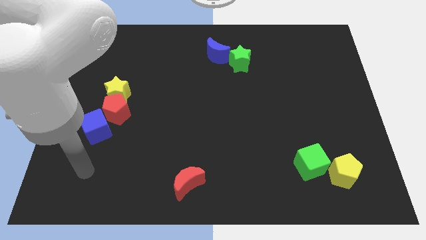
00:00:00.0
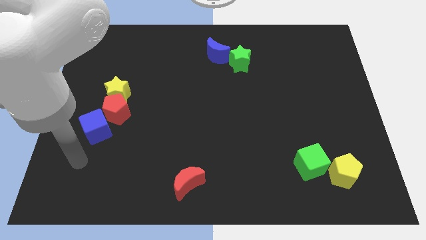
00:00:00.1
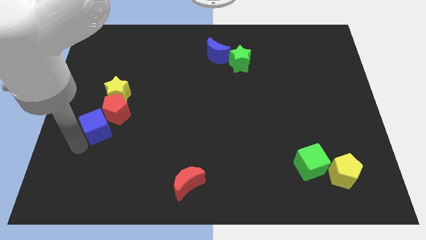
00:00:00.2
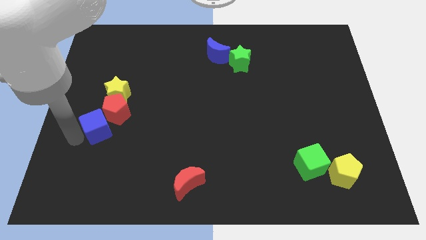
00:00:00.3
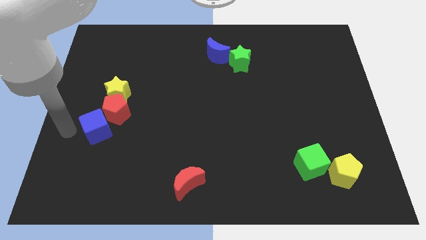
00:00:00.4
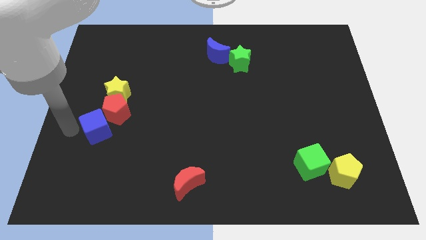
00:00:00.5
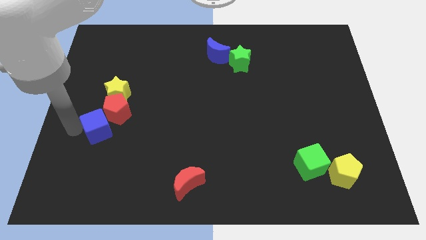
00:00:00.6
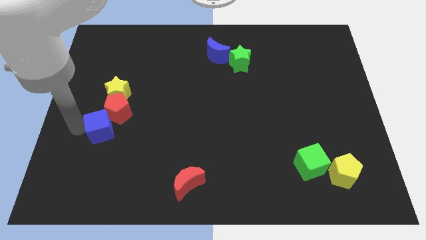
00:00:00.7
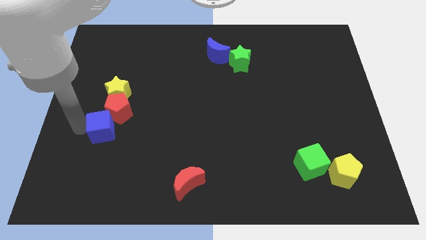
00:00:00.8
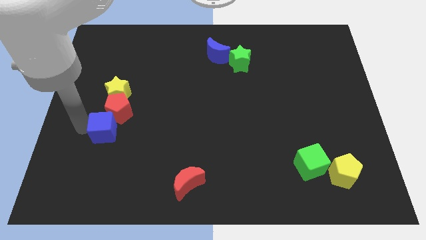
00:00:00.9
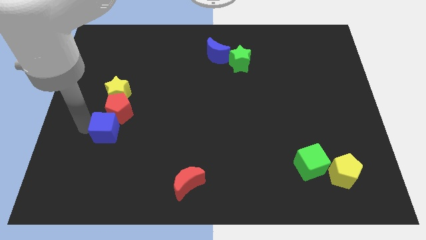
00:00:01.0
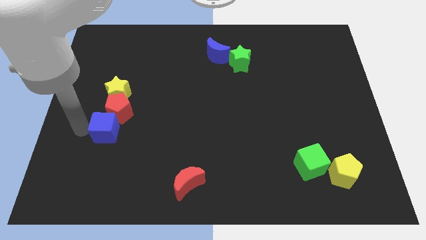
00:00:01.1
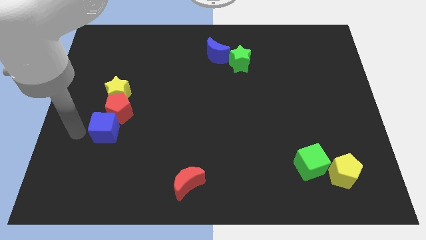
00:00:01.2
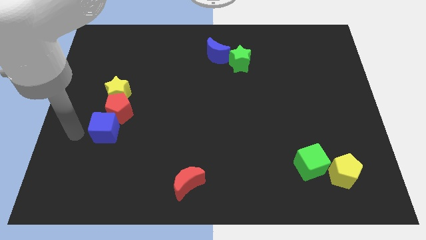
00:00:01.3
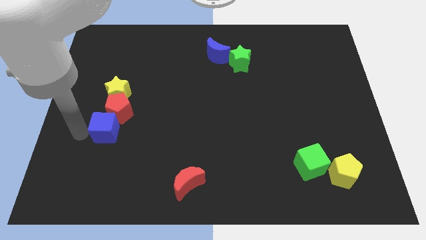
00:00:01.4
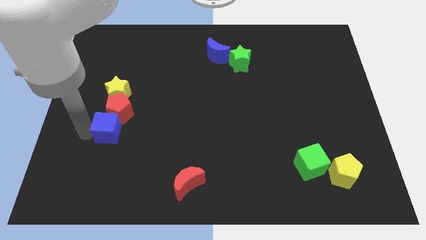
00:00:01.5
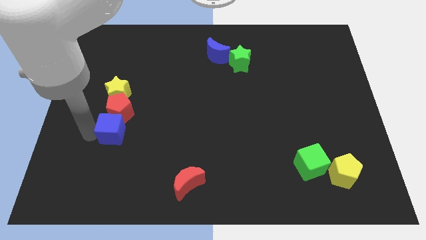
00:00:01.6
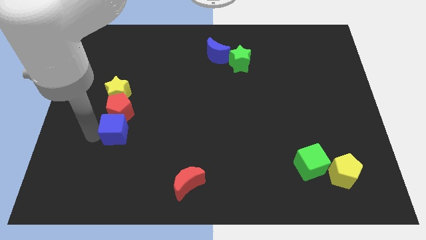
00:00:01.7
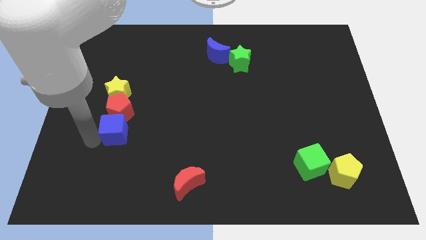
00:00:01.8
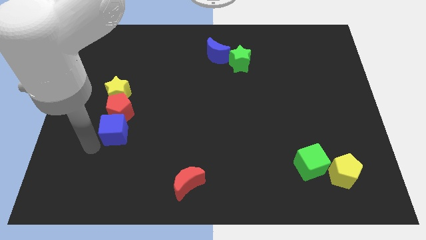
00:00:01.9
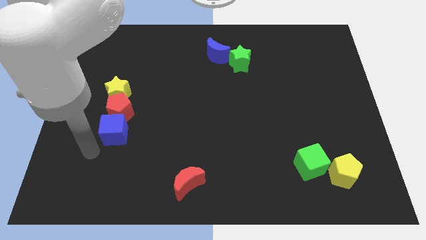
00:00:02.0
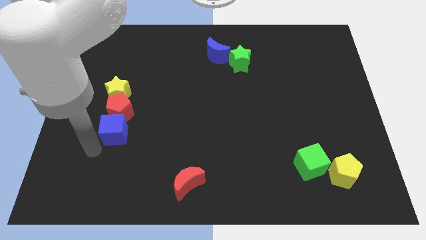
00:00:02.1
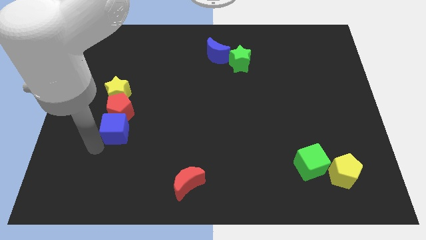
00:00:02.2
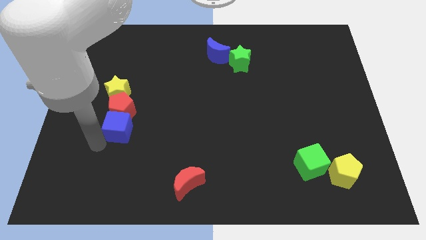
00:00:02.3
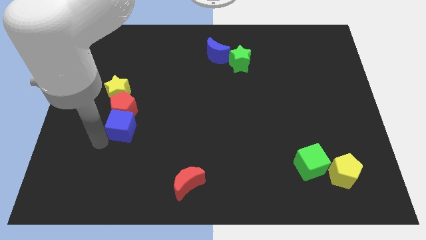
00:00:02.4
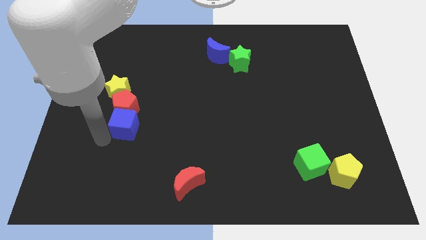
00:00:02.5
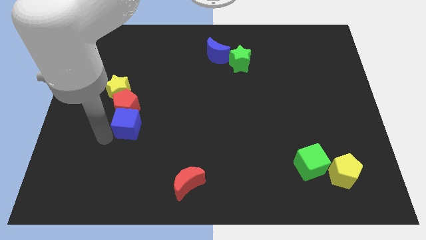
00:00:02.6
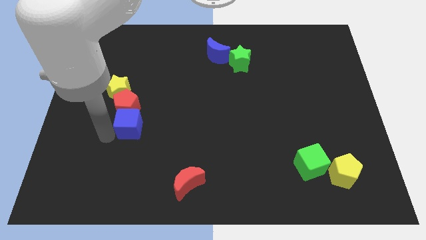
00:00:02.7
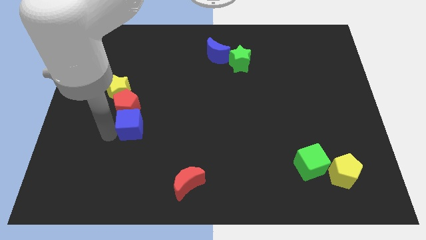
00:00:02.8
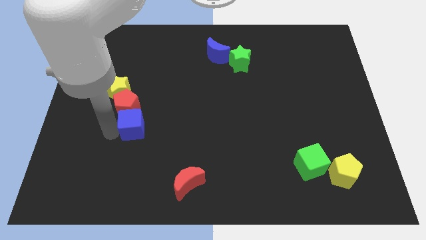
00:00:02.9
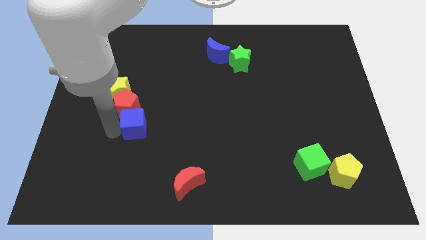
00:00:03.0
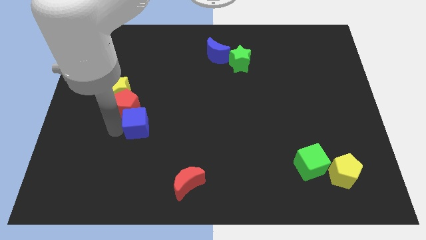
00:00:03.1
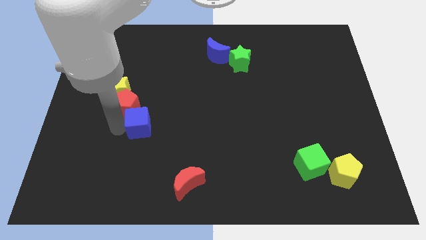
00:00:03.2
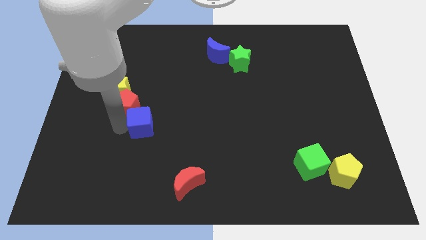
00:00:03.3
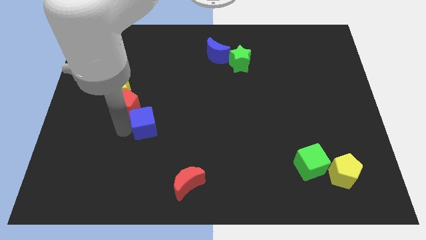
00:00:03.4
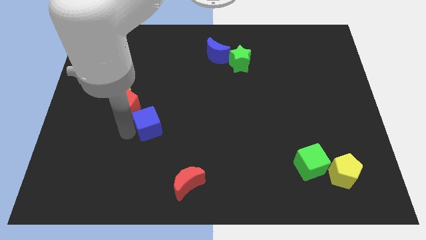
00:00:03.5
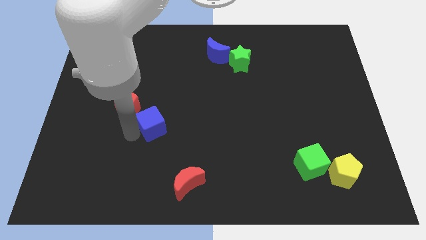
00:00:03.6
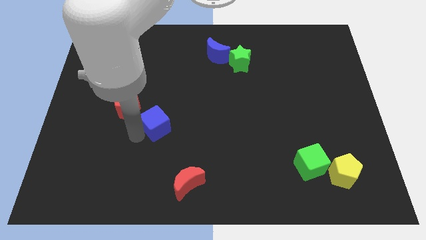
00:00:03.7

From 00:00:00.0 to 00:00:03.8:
slide the blue cube diagonally up and right a little

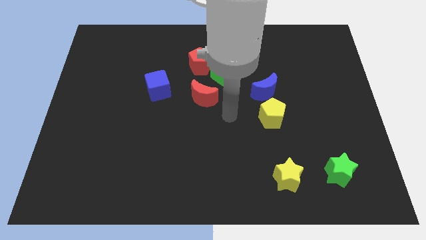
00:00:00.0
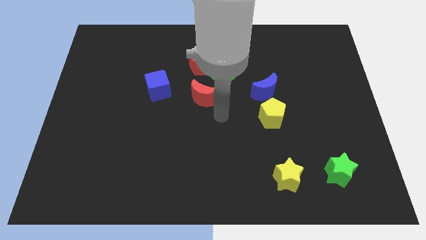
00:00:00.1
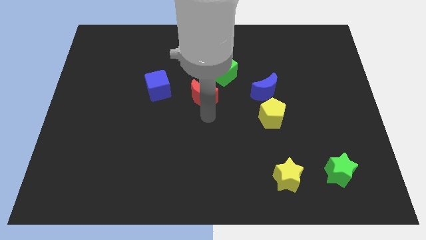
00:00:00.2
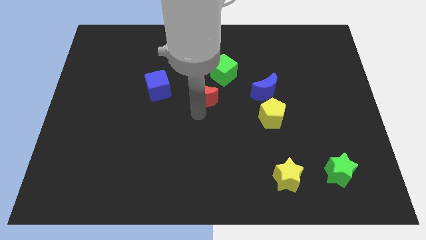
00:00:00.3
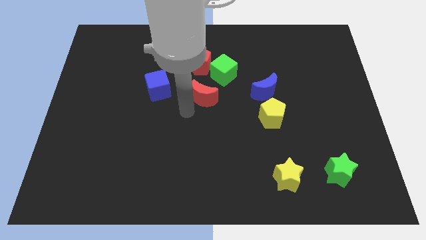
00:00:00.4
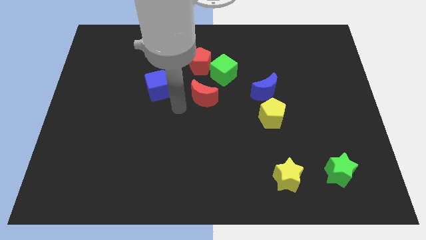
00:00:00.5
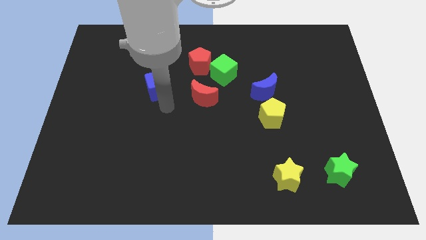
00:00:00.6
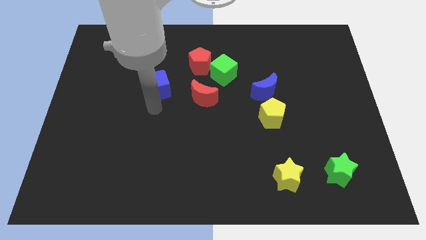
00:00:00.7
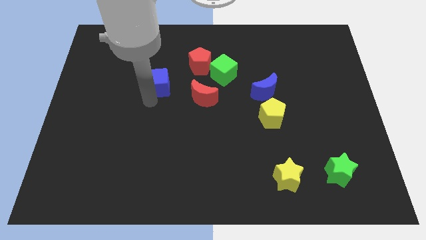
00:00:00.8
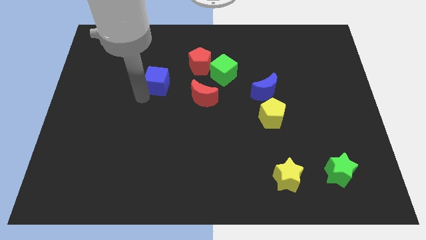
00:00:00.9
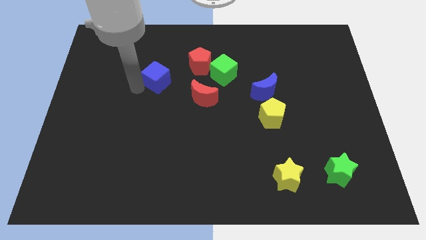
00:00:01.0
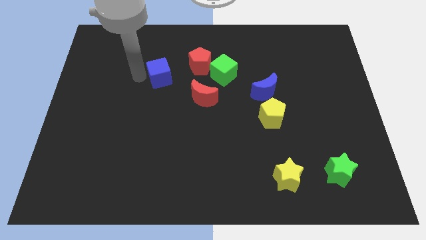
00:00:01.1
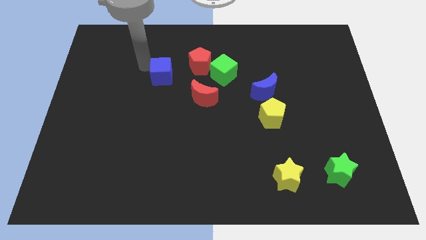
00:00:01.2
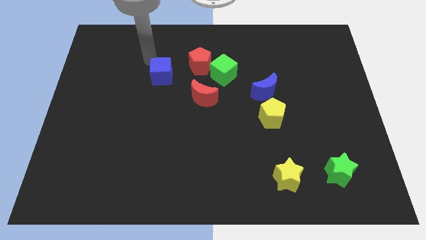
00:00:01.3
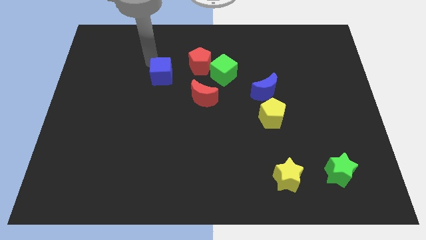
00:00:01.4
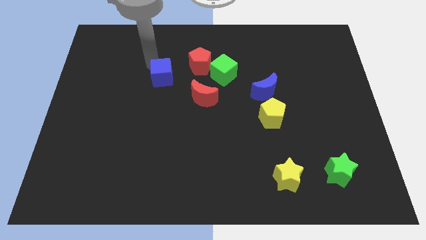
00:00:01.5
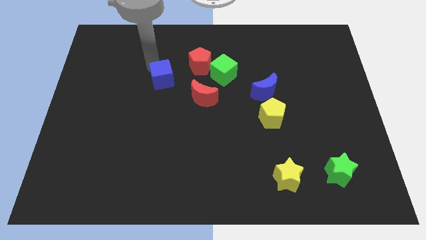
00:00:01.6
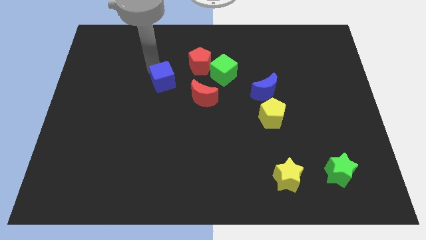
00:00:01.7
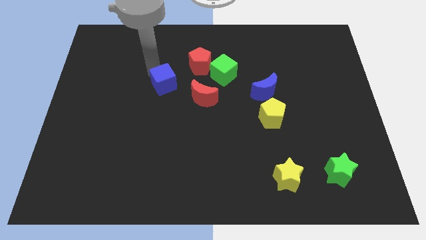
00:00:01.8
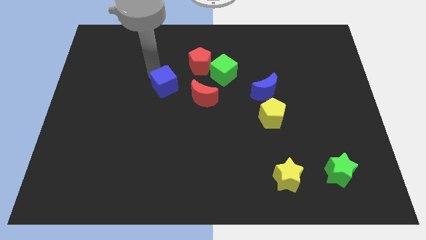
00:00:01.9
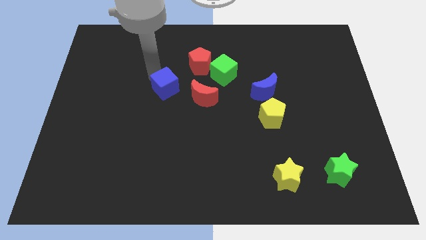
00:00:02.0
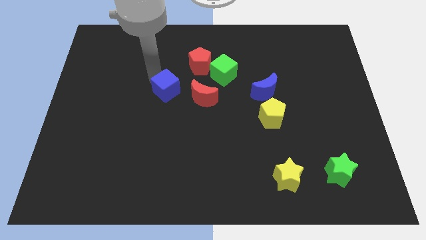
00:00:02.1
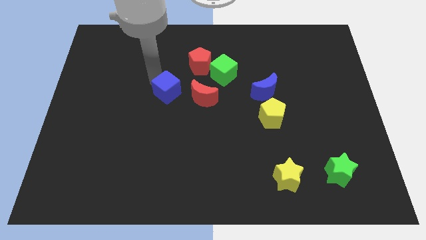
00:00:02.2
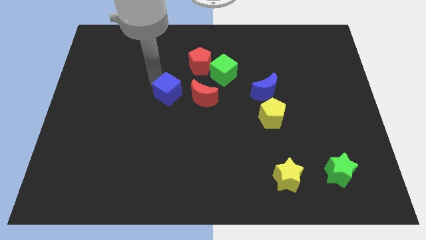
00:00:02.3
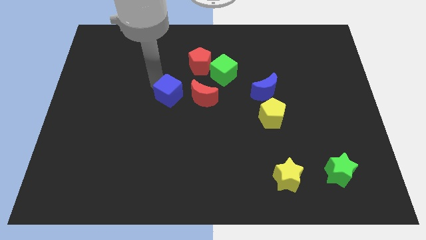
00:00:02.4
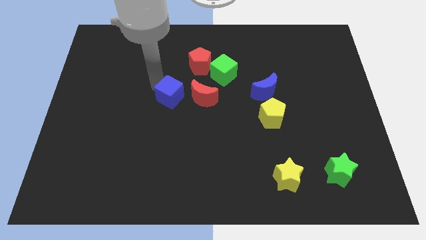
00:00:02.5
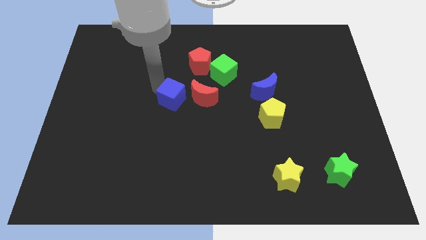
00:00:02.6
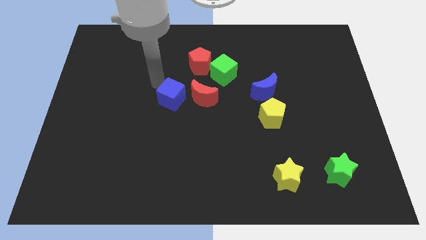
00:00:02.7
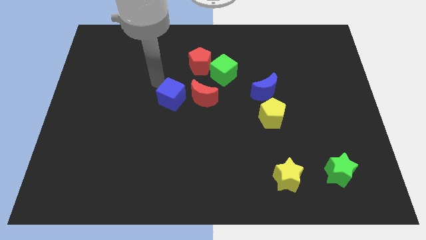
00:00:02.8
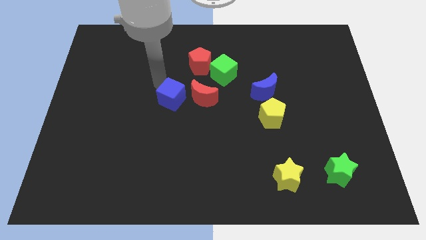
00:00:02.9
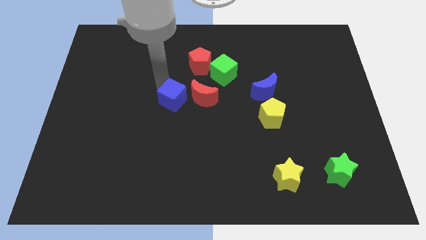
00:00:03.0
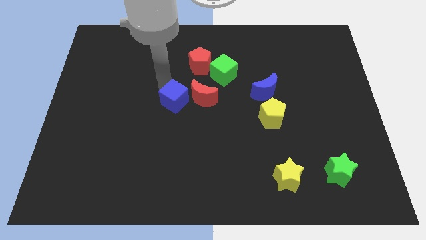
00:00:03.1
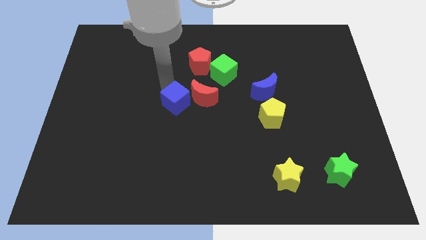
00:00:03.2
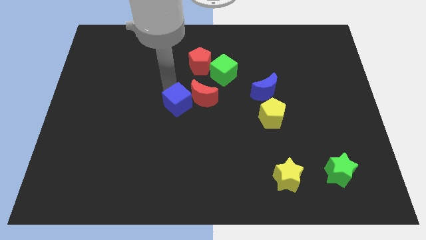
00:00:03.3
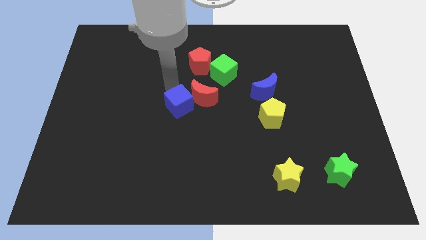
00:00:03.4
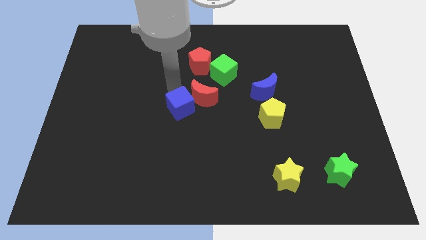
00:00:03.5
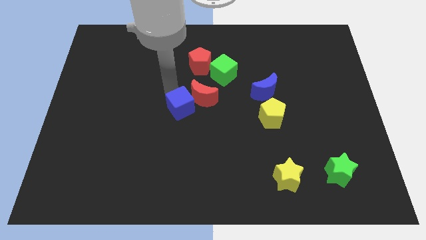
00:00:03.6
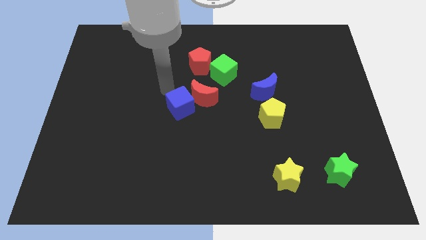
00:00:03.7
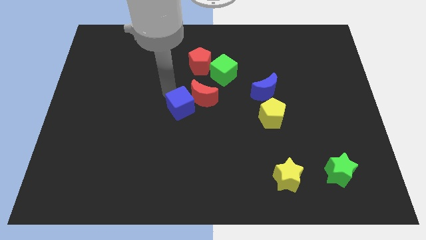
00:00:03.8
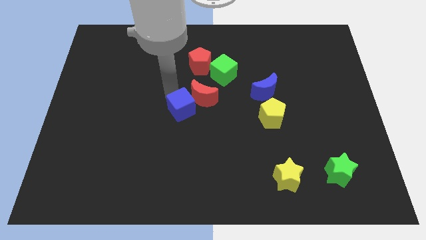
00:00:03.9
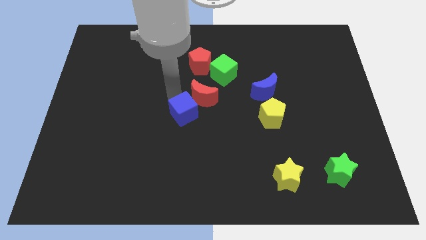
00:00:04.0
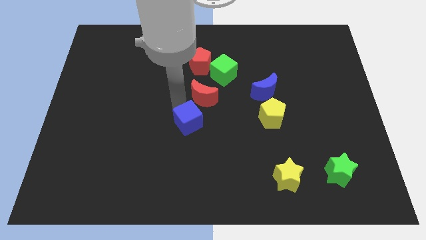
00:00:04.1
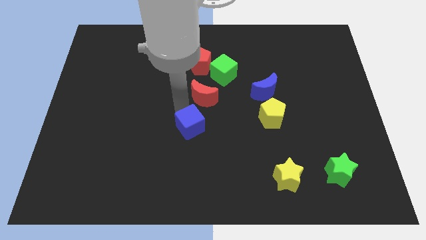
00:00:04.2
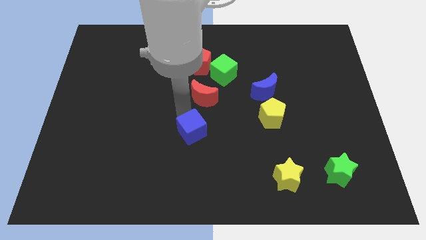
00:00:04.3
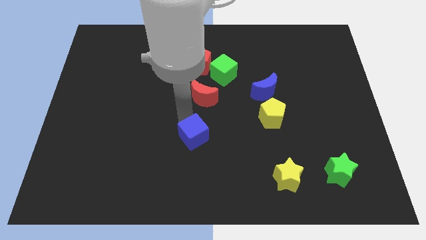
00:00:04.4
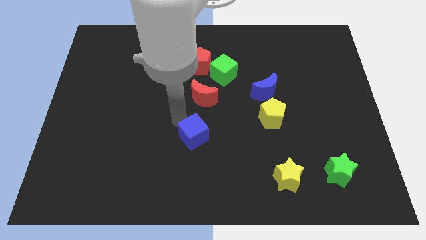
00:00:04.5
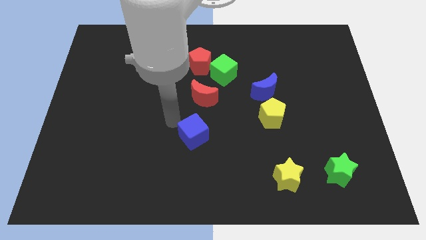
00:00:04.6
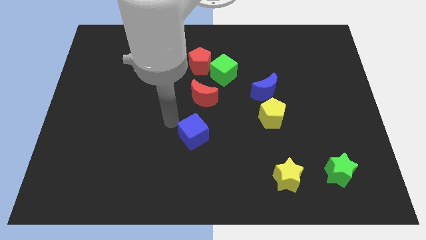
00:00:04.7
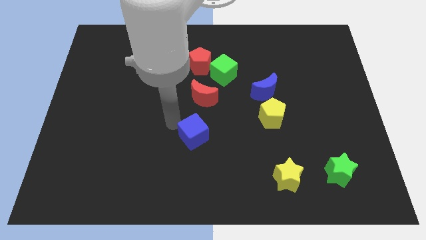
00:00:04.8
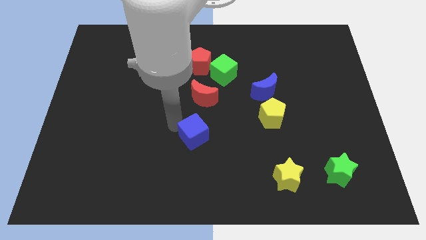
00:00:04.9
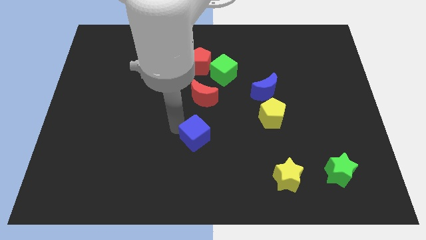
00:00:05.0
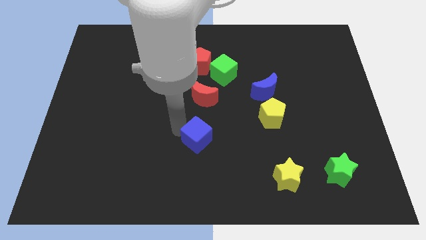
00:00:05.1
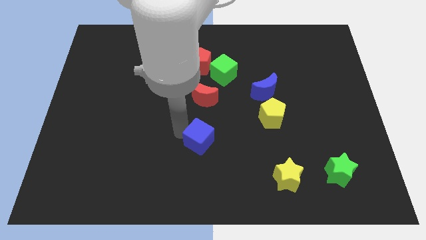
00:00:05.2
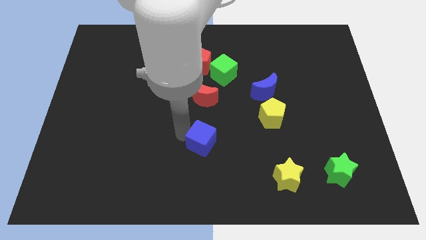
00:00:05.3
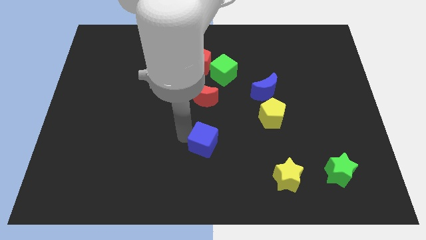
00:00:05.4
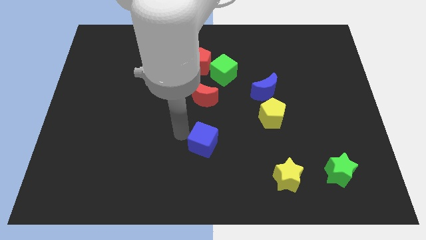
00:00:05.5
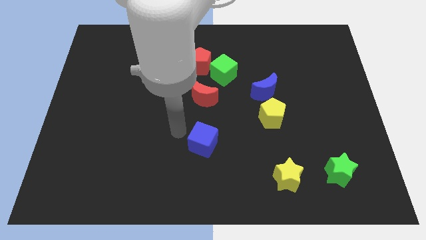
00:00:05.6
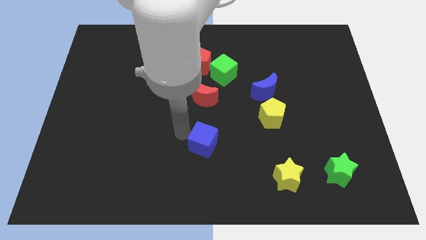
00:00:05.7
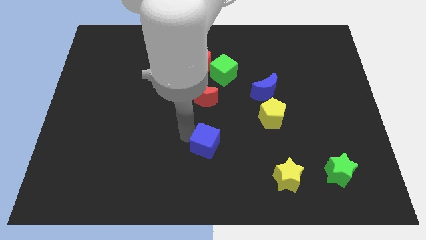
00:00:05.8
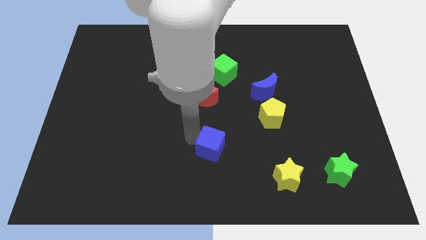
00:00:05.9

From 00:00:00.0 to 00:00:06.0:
move the blue cube down and to the right diagonally
